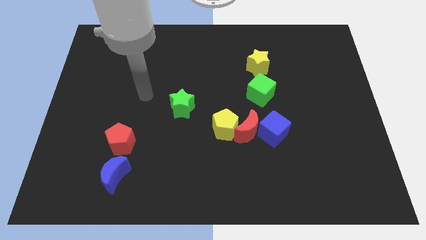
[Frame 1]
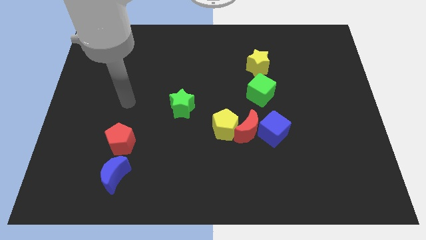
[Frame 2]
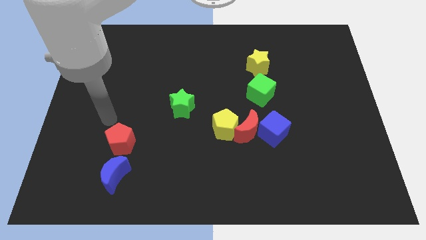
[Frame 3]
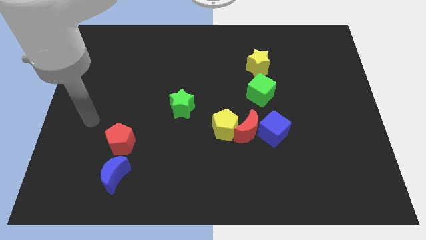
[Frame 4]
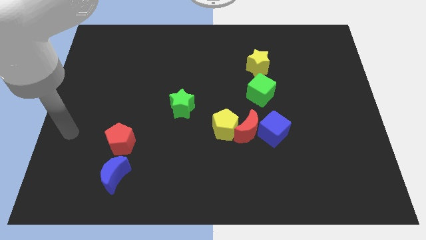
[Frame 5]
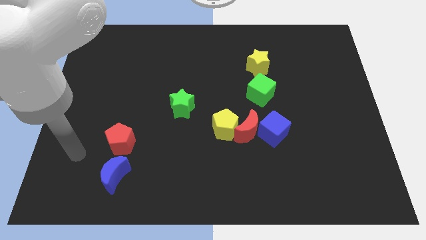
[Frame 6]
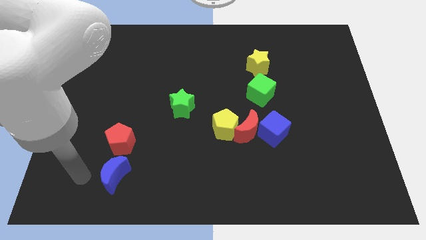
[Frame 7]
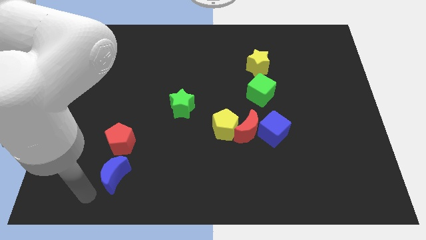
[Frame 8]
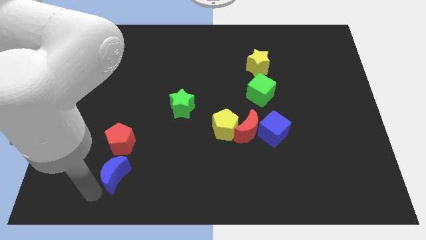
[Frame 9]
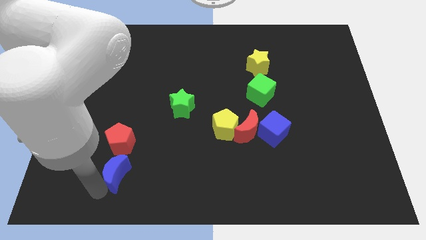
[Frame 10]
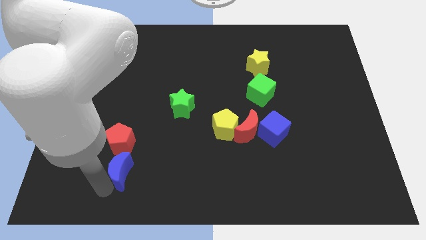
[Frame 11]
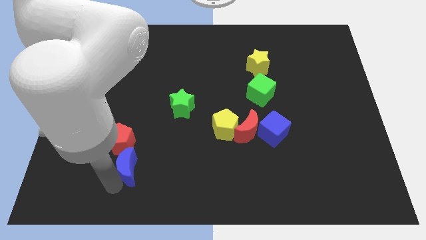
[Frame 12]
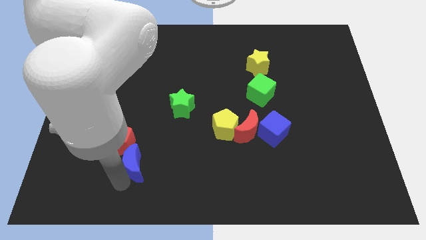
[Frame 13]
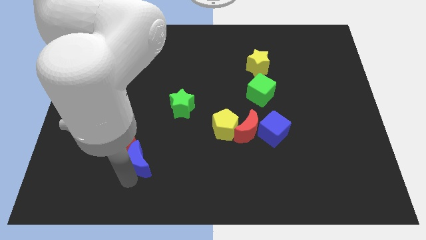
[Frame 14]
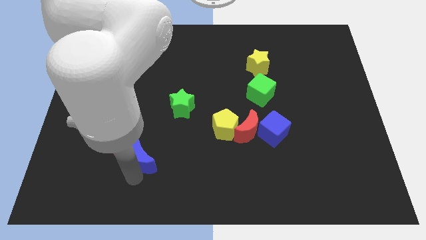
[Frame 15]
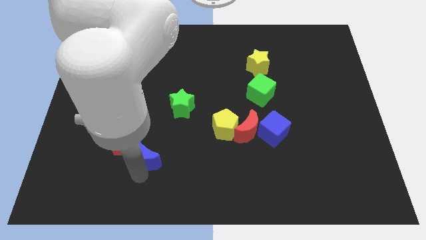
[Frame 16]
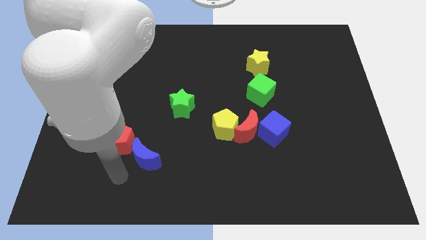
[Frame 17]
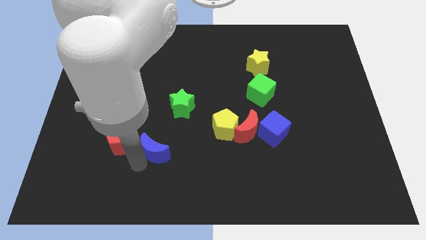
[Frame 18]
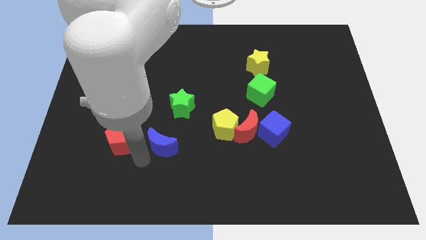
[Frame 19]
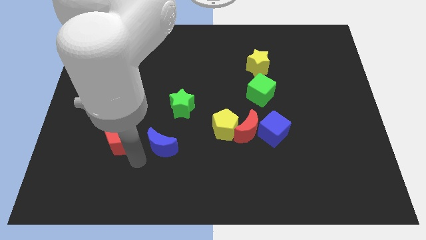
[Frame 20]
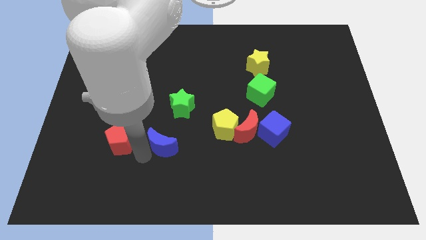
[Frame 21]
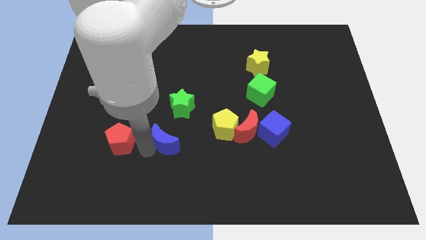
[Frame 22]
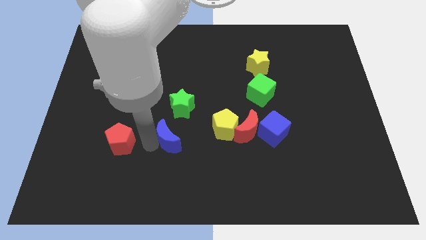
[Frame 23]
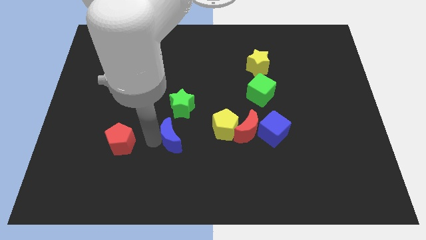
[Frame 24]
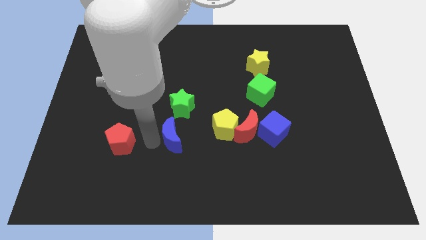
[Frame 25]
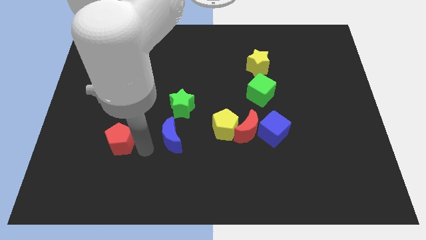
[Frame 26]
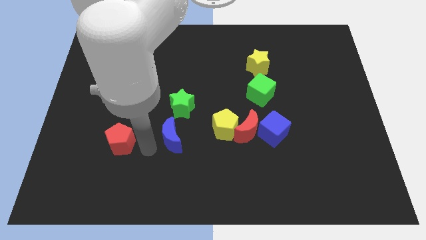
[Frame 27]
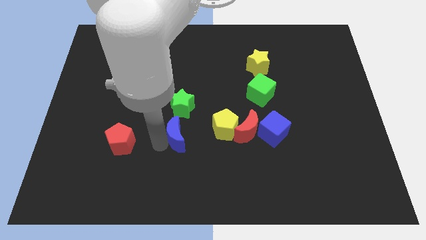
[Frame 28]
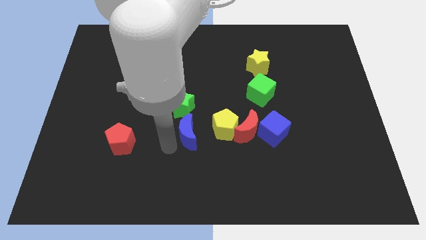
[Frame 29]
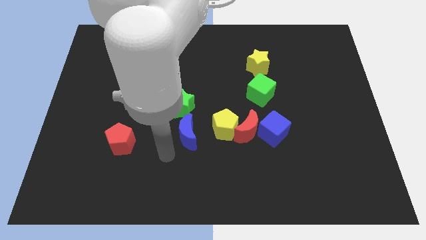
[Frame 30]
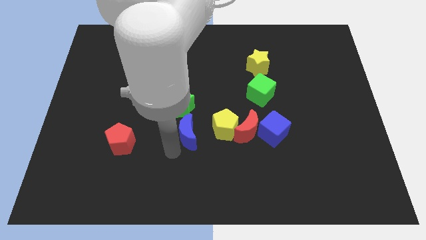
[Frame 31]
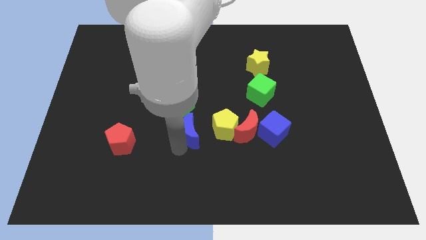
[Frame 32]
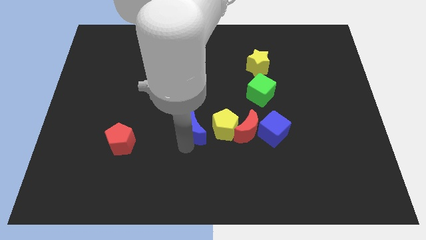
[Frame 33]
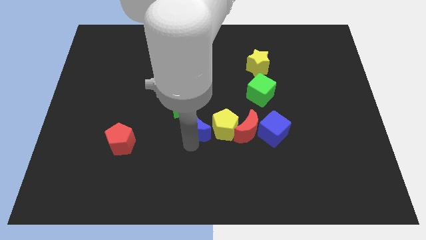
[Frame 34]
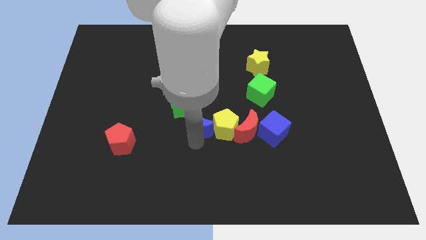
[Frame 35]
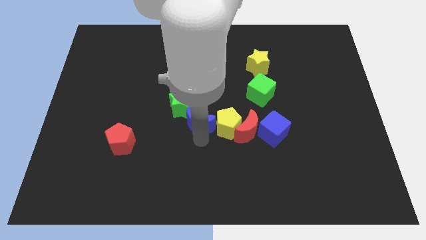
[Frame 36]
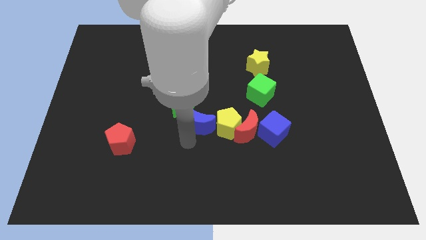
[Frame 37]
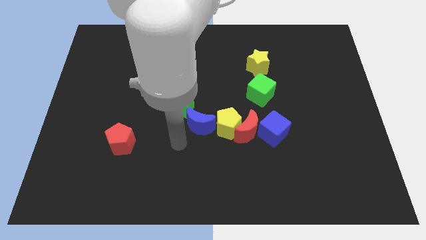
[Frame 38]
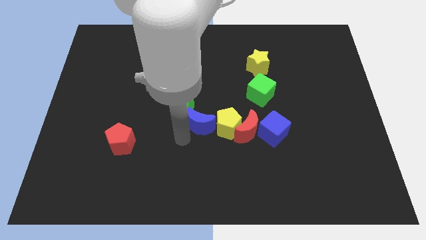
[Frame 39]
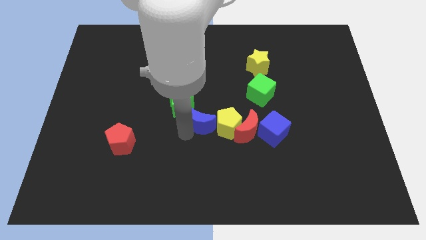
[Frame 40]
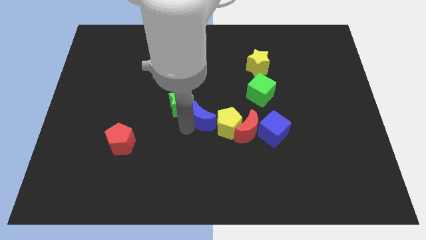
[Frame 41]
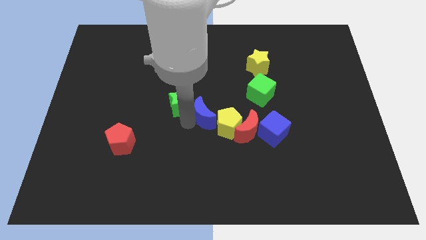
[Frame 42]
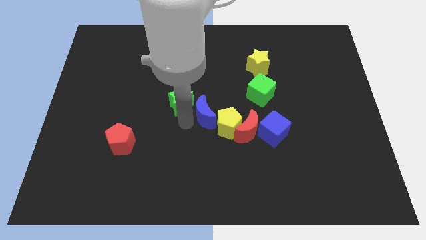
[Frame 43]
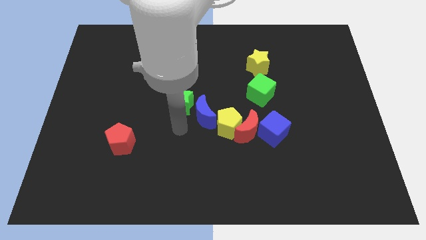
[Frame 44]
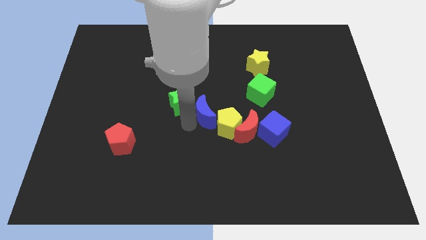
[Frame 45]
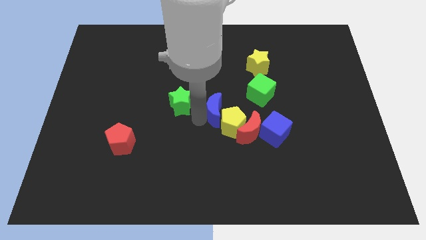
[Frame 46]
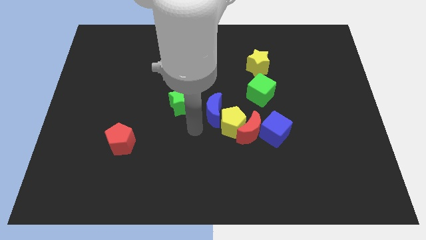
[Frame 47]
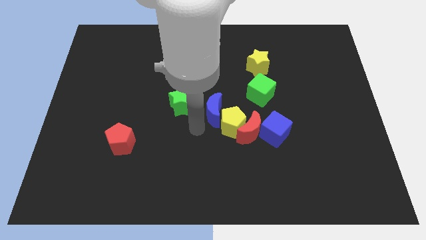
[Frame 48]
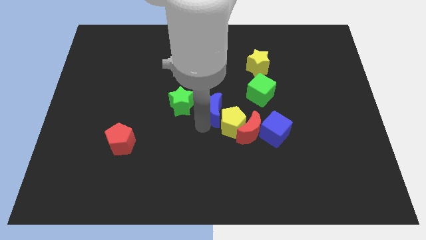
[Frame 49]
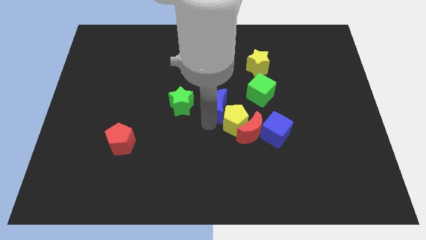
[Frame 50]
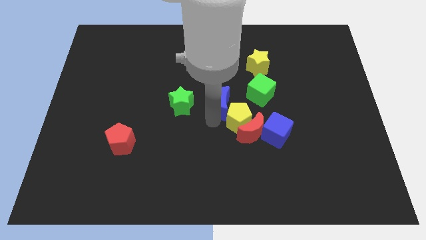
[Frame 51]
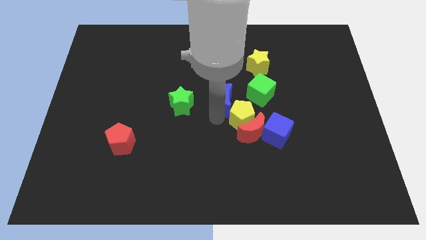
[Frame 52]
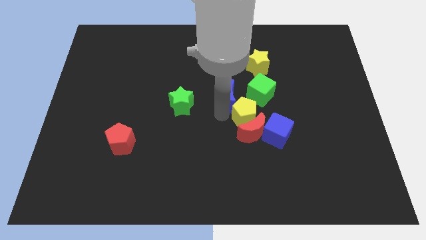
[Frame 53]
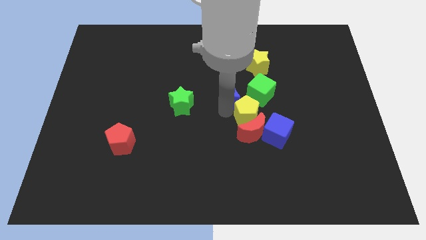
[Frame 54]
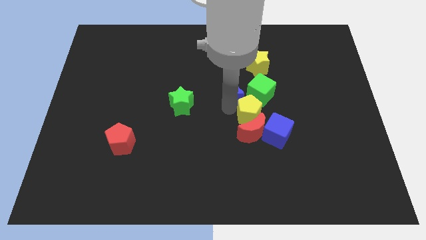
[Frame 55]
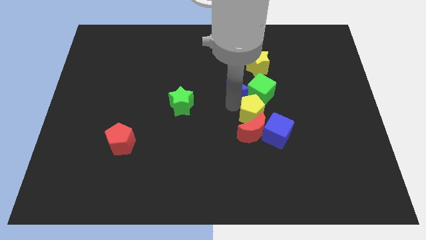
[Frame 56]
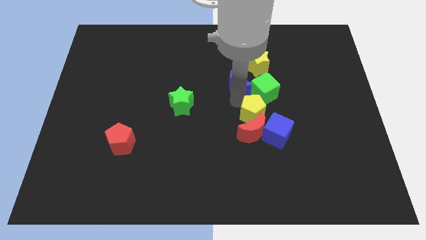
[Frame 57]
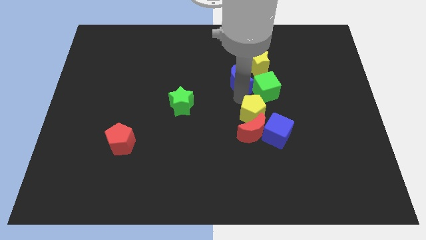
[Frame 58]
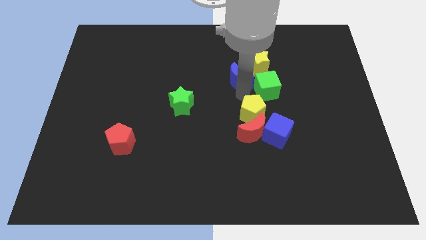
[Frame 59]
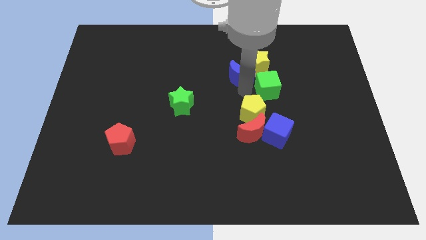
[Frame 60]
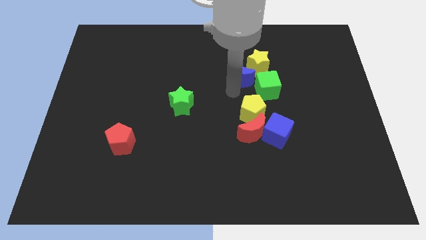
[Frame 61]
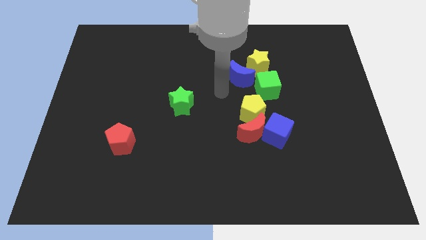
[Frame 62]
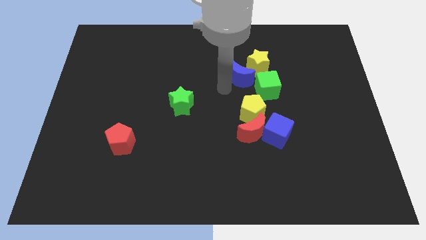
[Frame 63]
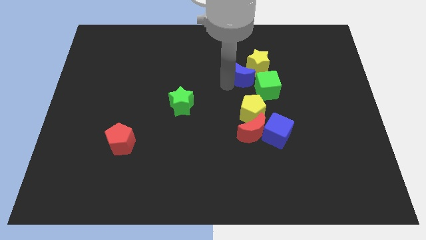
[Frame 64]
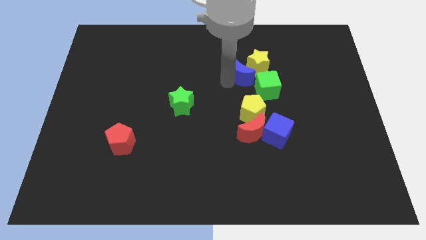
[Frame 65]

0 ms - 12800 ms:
slide the blue moon to the yellow star

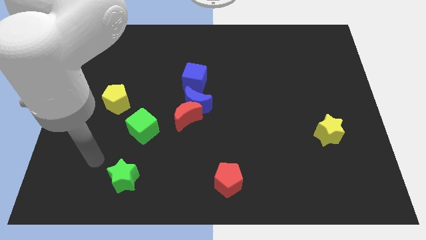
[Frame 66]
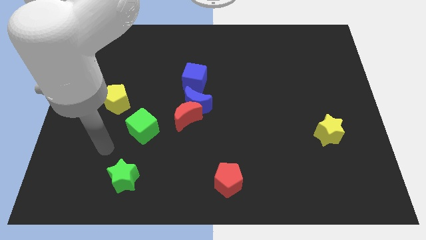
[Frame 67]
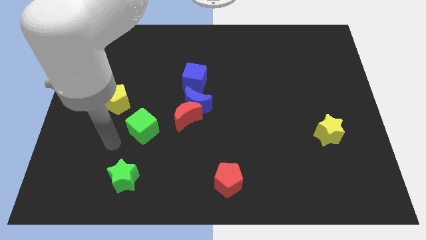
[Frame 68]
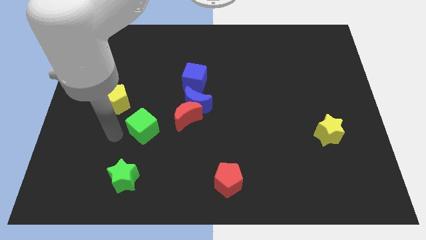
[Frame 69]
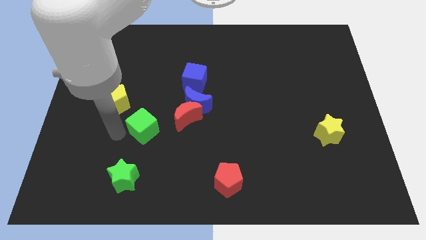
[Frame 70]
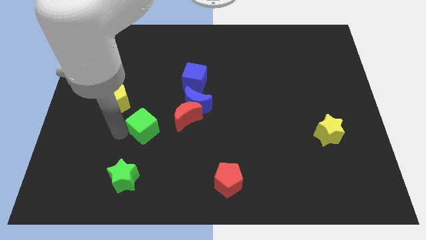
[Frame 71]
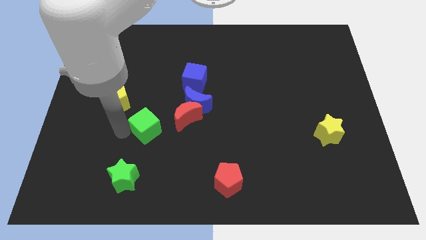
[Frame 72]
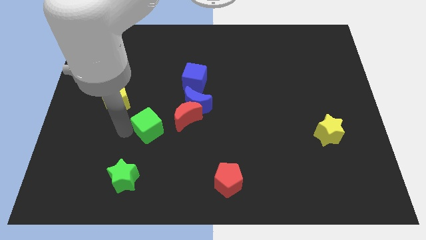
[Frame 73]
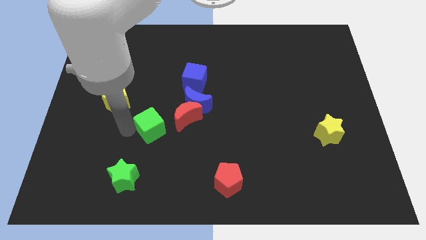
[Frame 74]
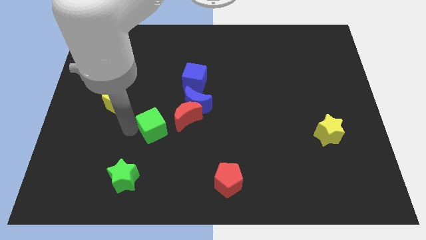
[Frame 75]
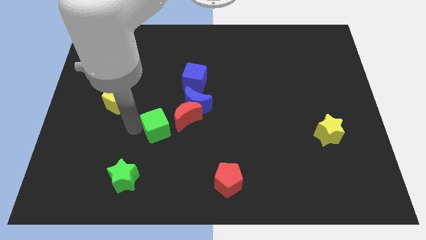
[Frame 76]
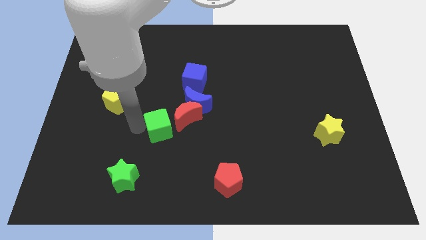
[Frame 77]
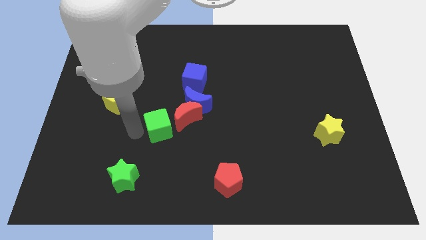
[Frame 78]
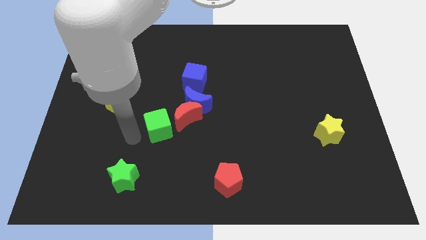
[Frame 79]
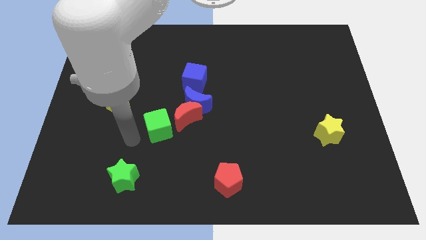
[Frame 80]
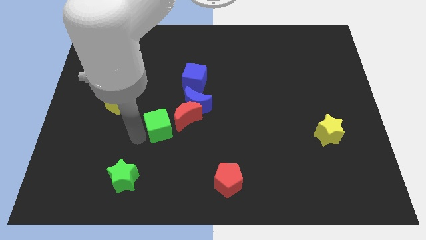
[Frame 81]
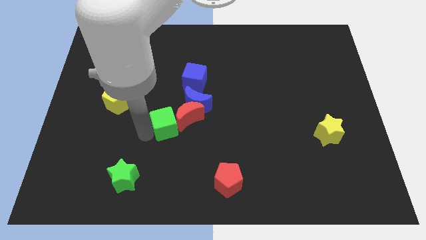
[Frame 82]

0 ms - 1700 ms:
move the green cube close to the red moon
